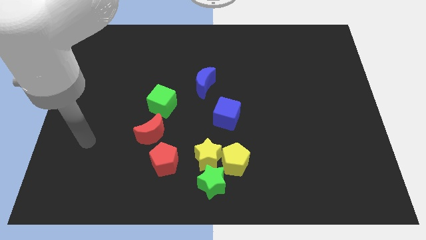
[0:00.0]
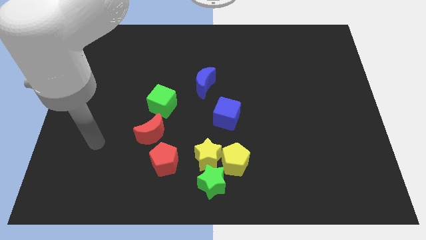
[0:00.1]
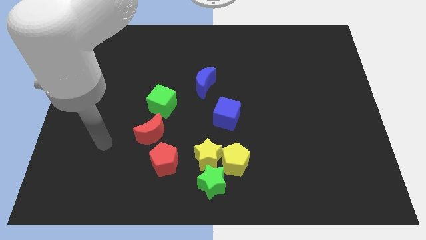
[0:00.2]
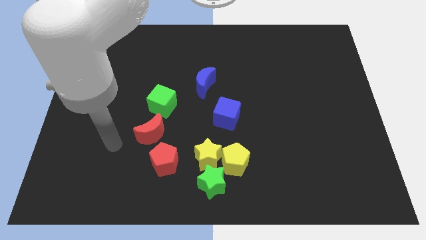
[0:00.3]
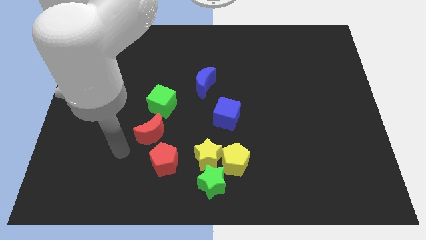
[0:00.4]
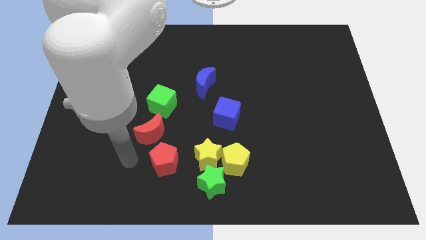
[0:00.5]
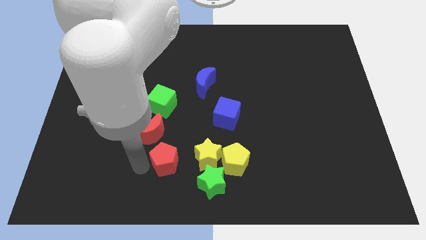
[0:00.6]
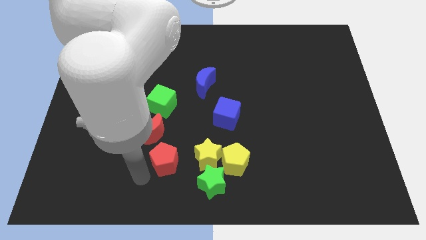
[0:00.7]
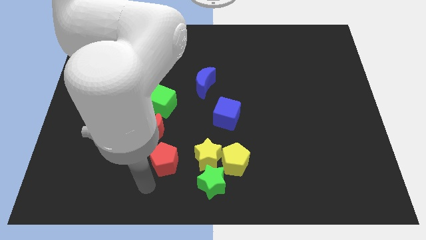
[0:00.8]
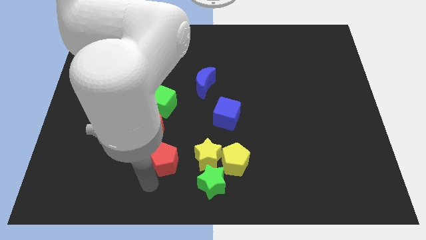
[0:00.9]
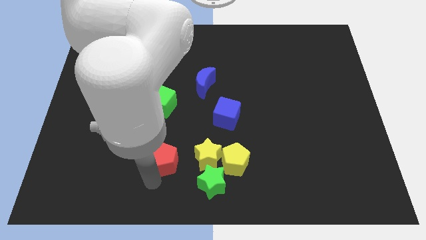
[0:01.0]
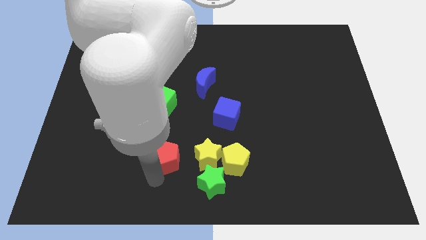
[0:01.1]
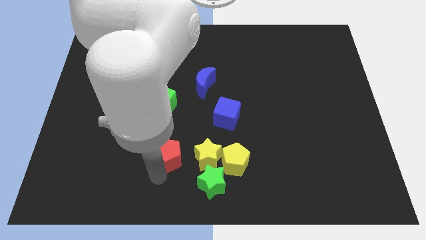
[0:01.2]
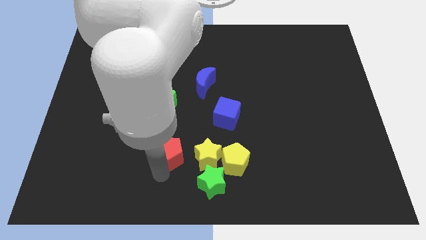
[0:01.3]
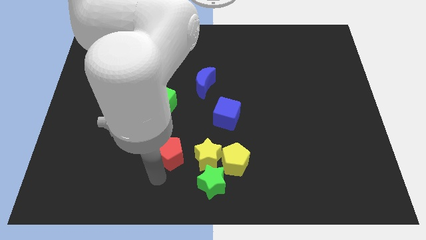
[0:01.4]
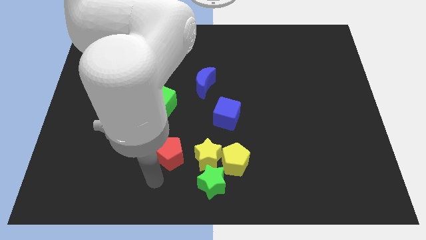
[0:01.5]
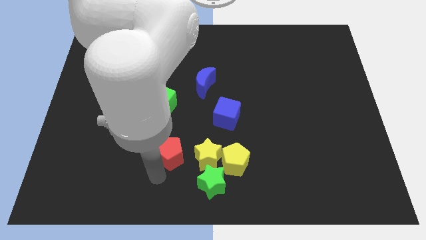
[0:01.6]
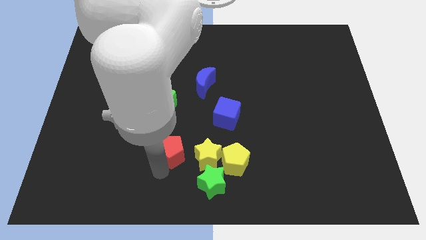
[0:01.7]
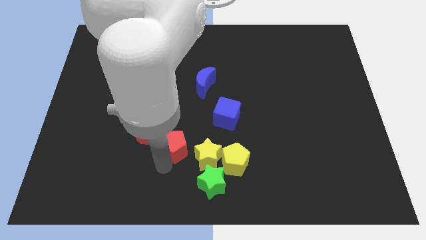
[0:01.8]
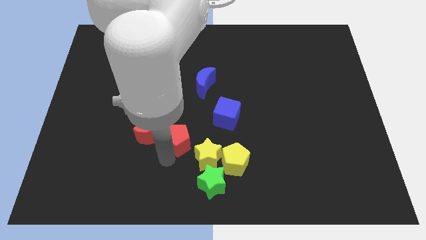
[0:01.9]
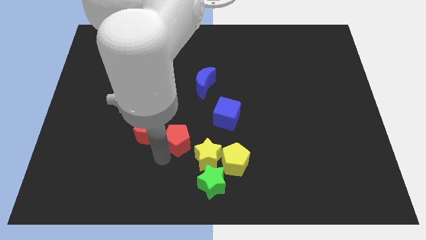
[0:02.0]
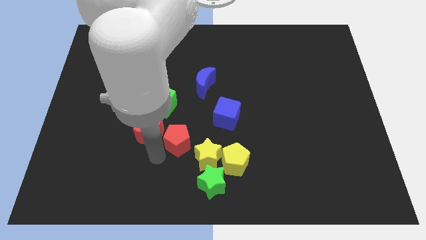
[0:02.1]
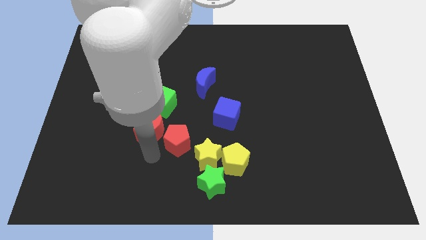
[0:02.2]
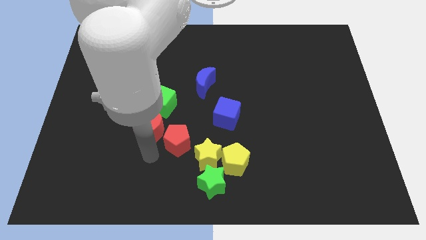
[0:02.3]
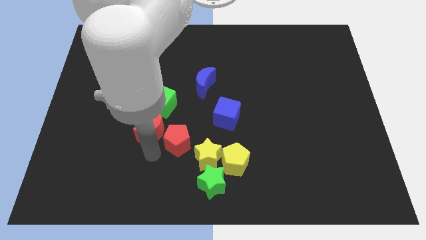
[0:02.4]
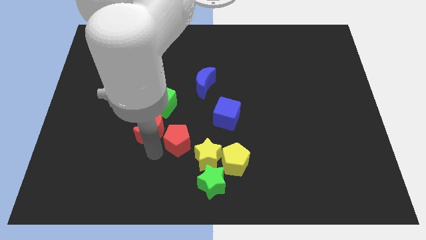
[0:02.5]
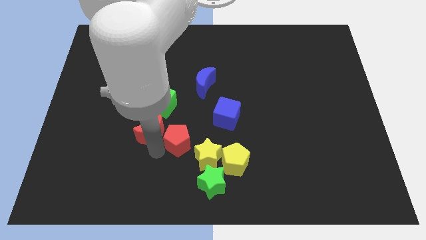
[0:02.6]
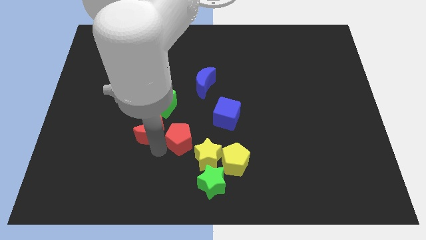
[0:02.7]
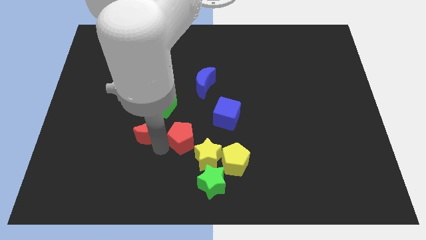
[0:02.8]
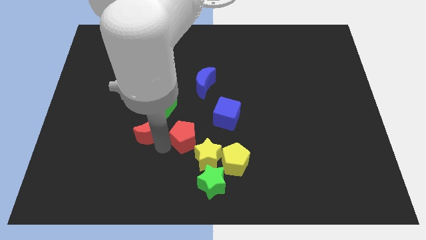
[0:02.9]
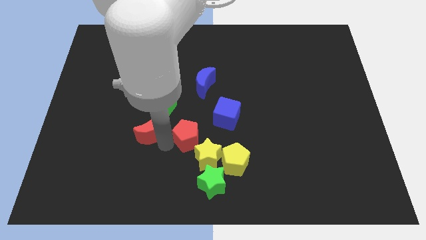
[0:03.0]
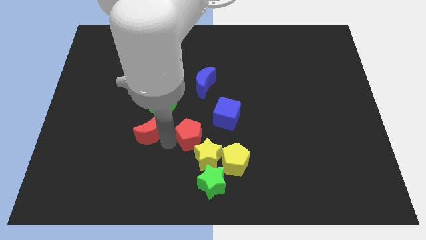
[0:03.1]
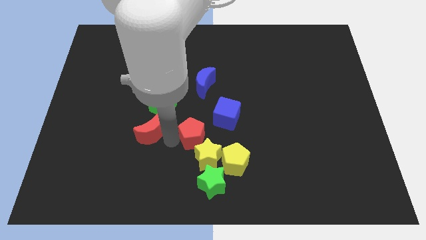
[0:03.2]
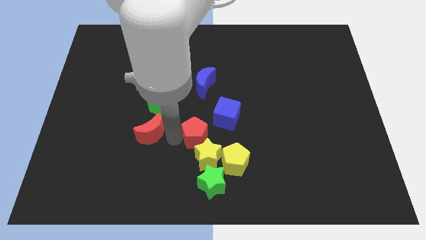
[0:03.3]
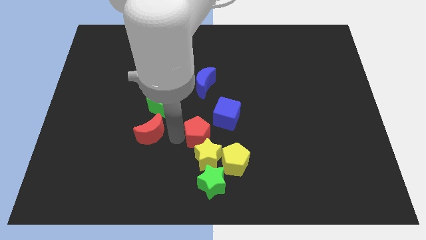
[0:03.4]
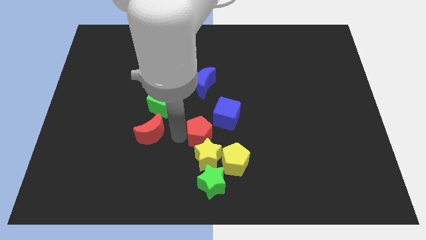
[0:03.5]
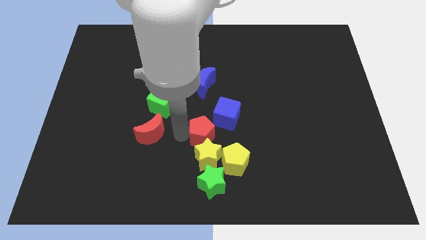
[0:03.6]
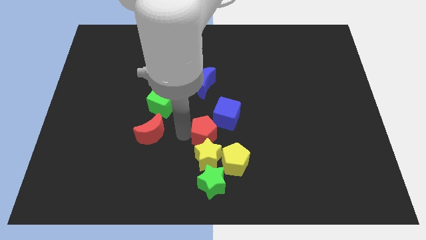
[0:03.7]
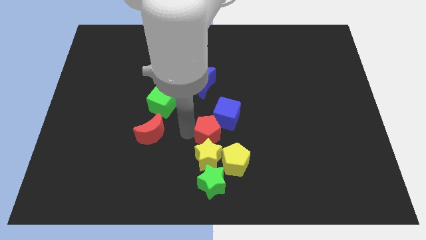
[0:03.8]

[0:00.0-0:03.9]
slide the red pentagon a little bit to the right

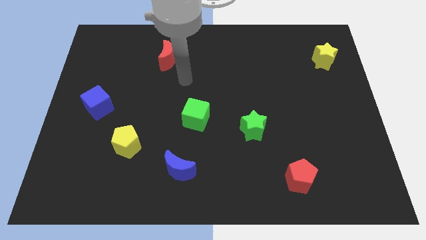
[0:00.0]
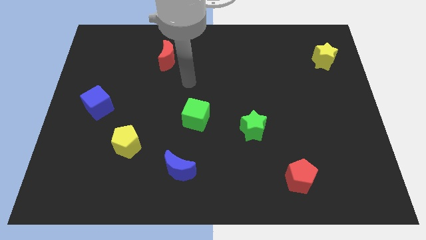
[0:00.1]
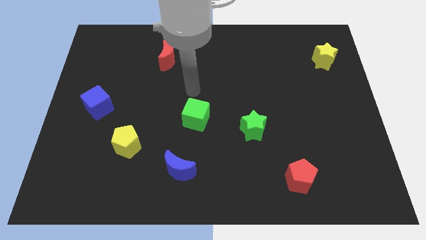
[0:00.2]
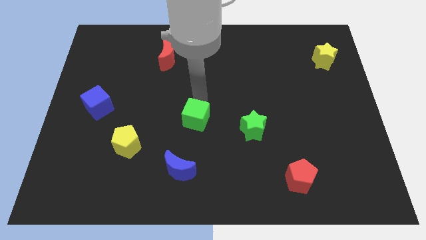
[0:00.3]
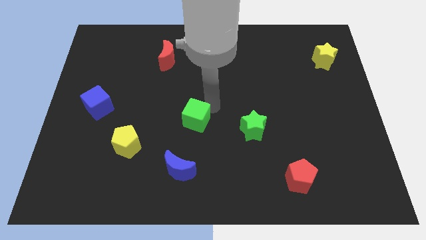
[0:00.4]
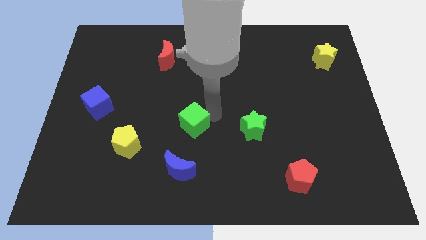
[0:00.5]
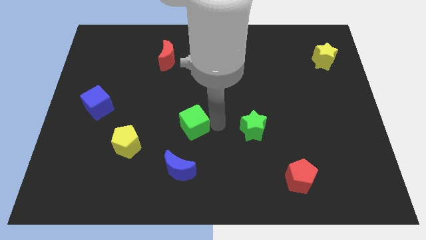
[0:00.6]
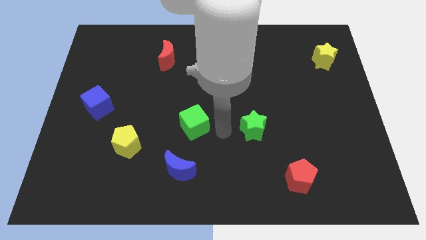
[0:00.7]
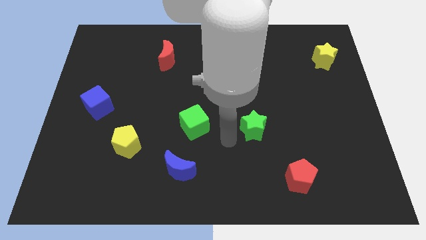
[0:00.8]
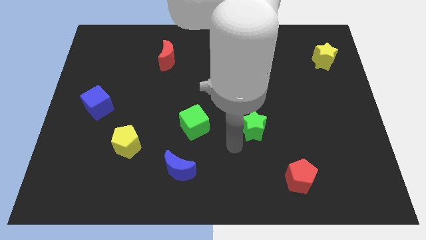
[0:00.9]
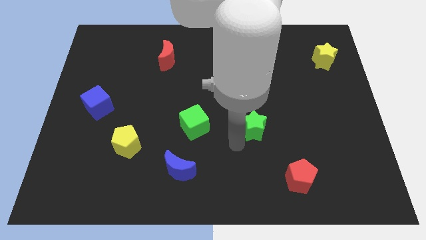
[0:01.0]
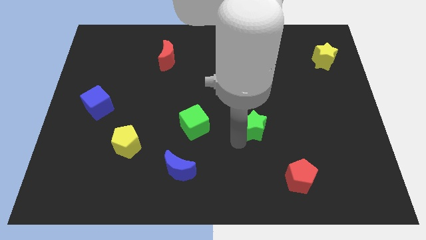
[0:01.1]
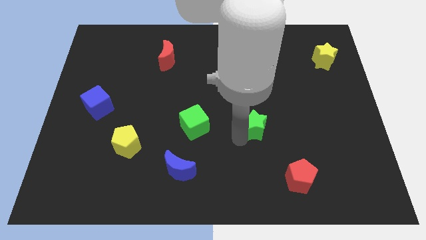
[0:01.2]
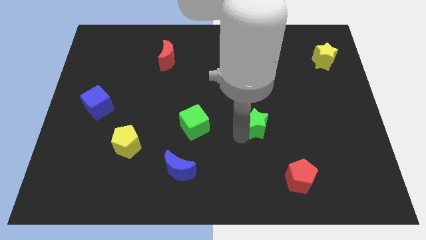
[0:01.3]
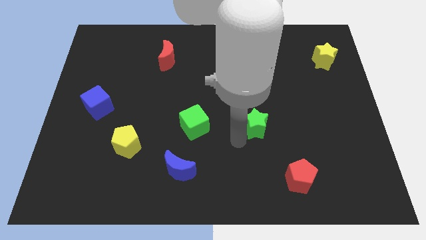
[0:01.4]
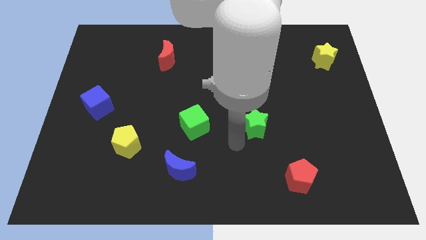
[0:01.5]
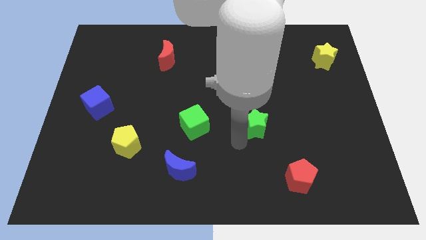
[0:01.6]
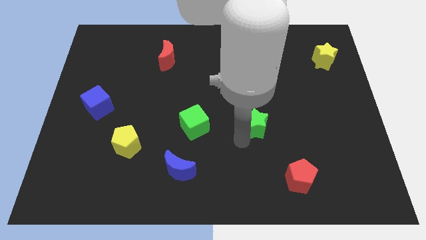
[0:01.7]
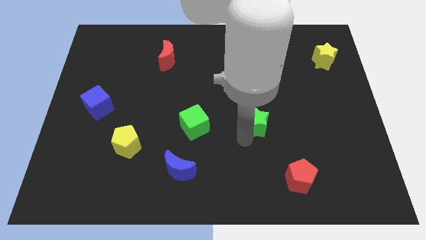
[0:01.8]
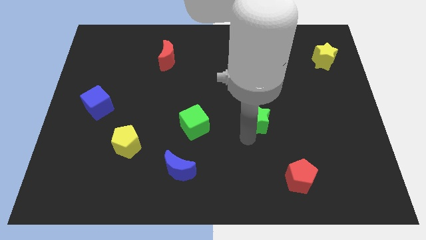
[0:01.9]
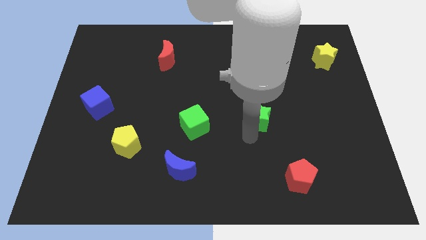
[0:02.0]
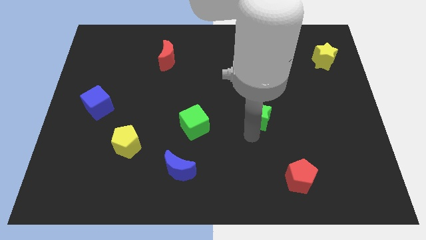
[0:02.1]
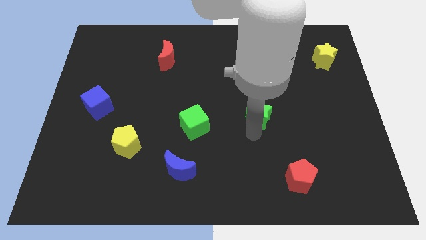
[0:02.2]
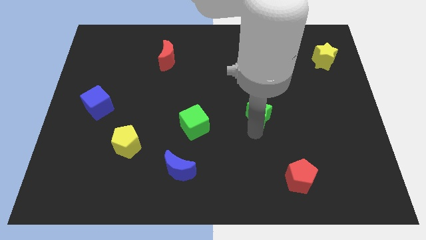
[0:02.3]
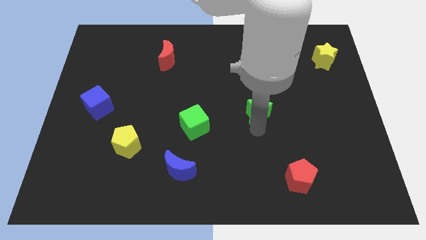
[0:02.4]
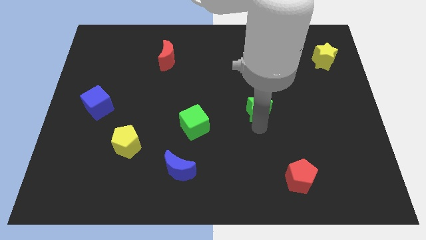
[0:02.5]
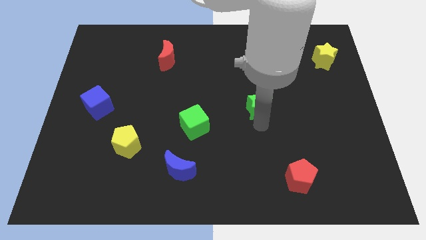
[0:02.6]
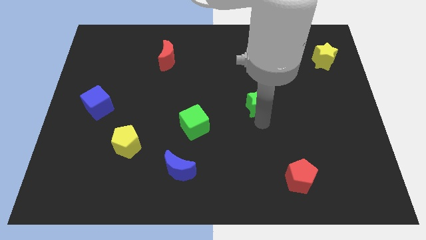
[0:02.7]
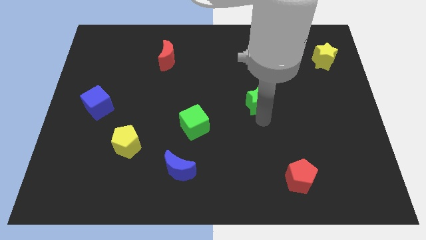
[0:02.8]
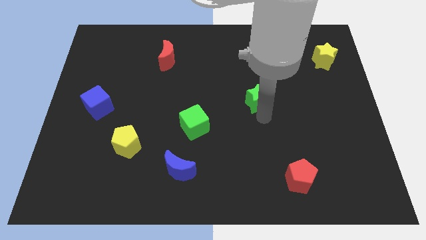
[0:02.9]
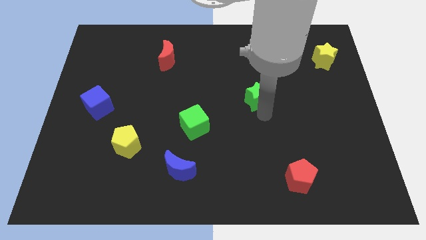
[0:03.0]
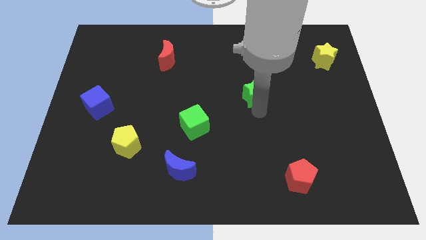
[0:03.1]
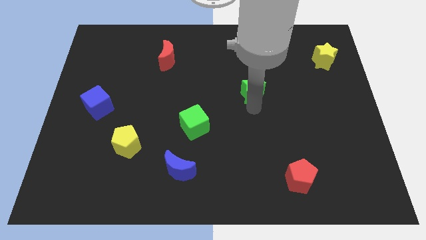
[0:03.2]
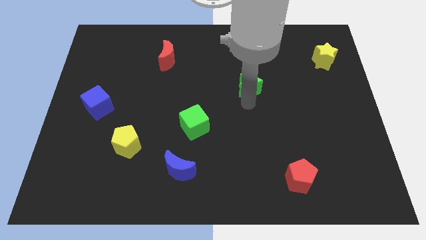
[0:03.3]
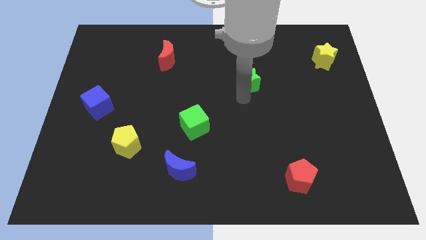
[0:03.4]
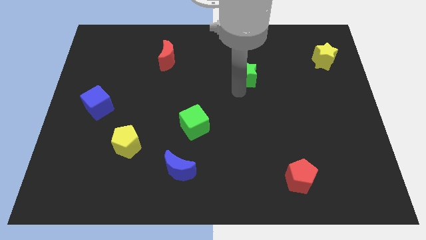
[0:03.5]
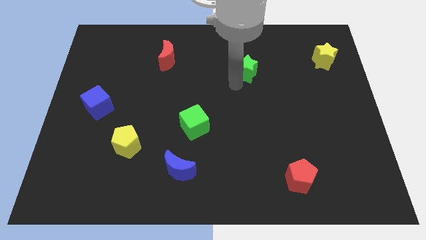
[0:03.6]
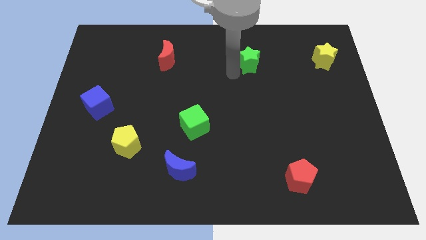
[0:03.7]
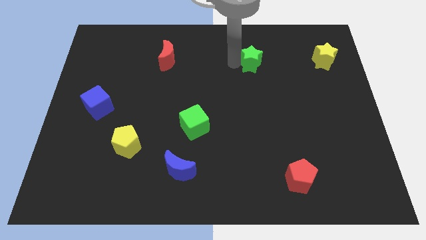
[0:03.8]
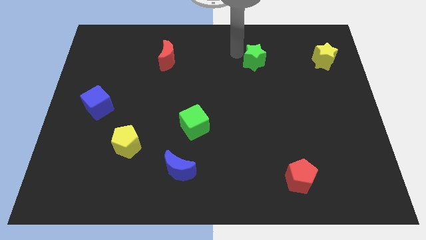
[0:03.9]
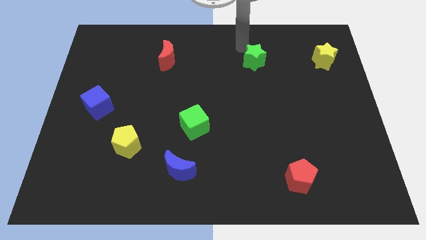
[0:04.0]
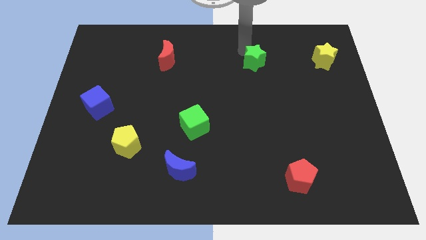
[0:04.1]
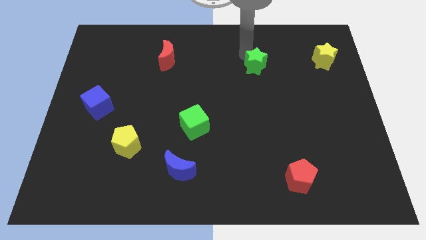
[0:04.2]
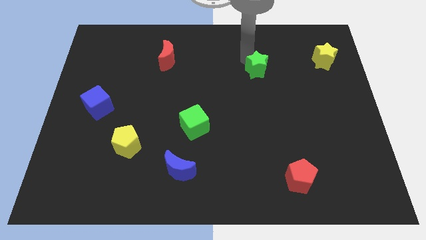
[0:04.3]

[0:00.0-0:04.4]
slightly move the green star diagonally up and right
